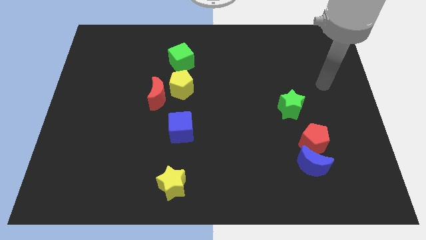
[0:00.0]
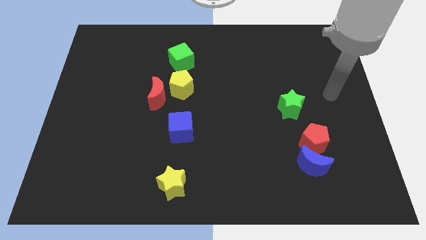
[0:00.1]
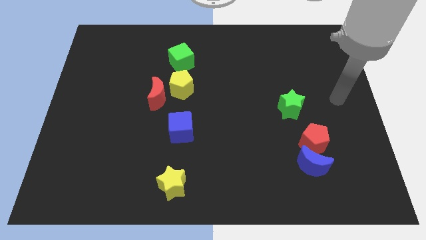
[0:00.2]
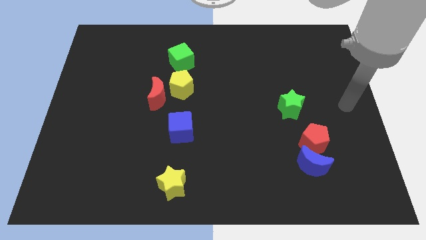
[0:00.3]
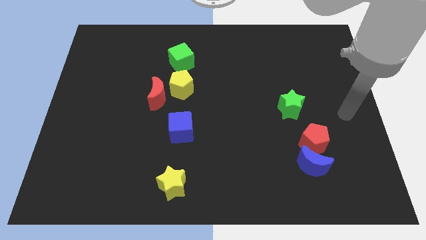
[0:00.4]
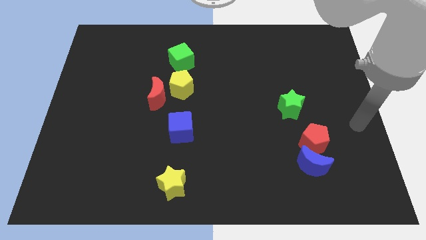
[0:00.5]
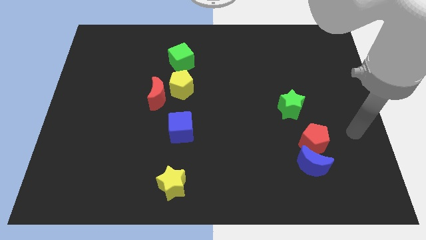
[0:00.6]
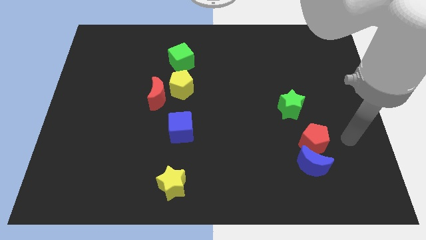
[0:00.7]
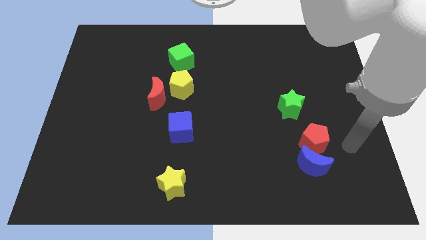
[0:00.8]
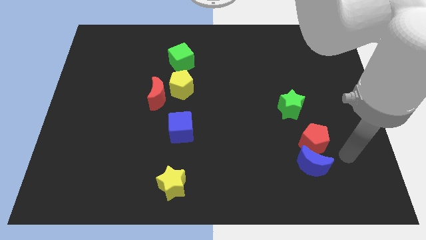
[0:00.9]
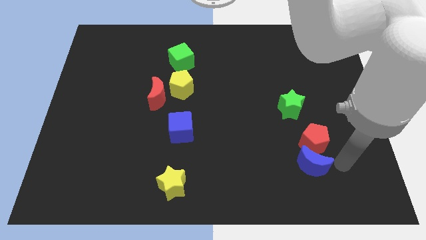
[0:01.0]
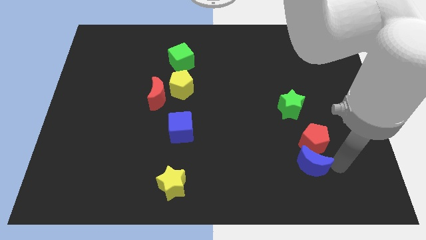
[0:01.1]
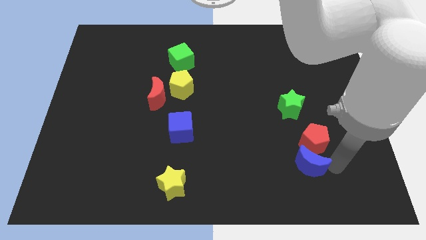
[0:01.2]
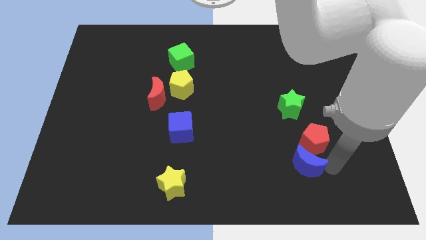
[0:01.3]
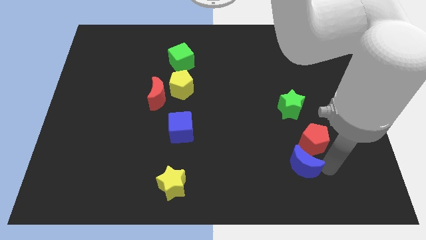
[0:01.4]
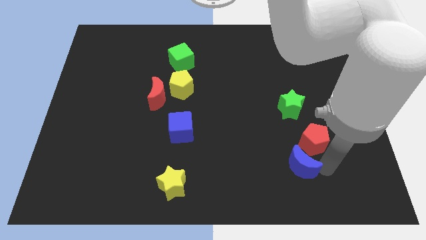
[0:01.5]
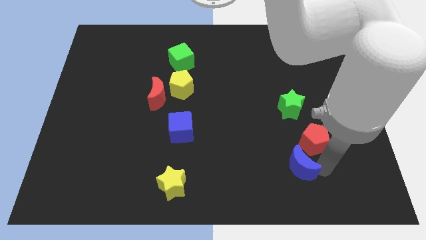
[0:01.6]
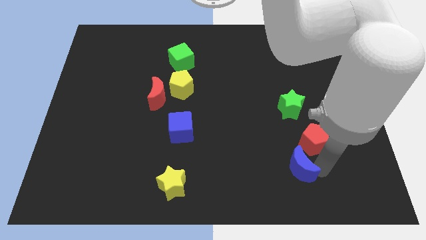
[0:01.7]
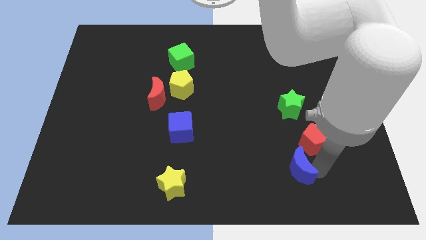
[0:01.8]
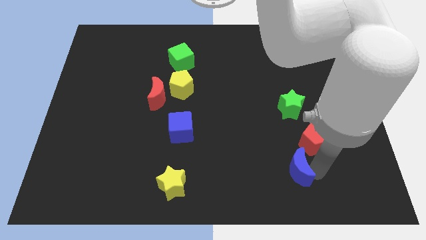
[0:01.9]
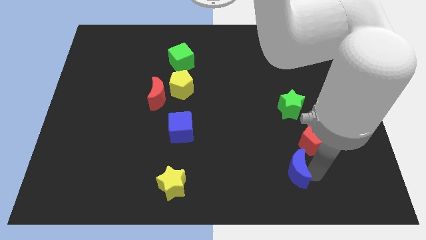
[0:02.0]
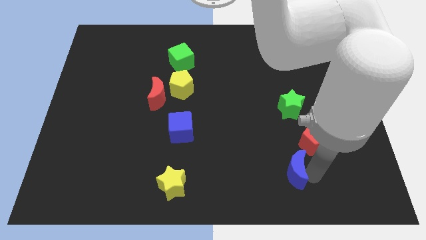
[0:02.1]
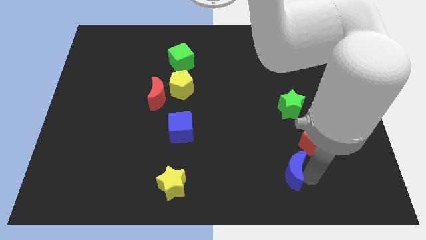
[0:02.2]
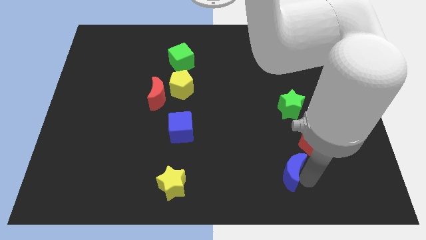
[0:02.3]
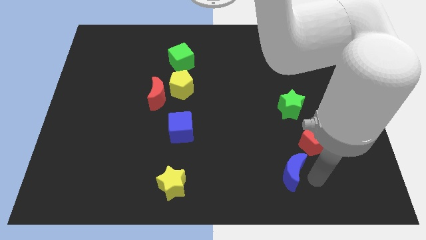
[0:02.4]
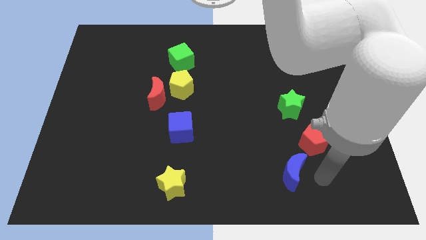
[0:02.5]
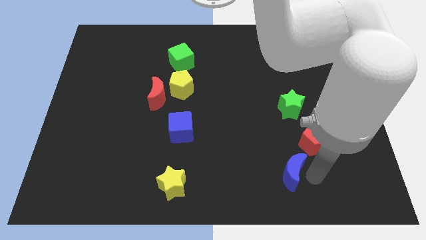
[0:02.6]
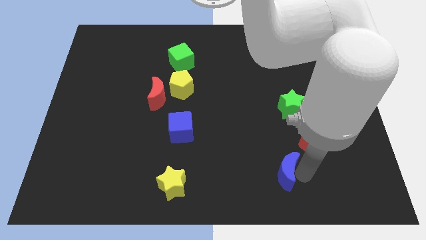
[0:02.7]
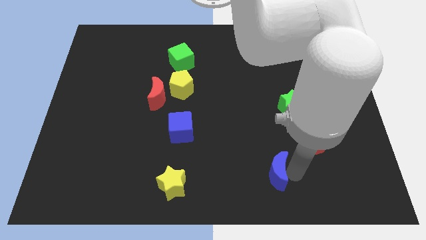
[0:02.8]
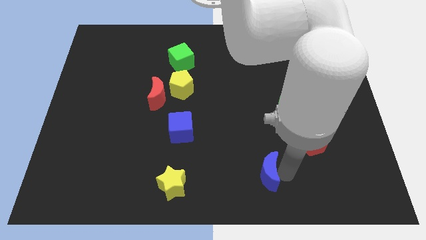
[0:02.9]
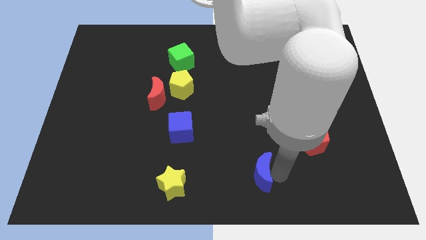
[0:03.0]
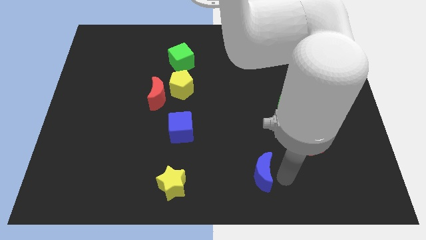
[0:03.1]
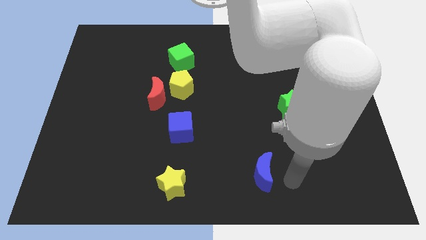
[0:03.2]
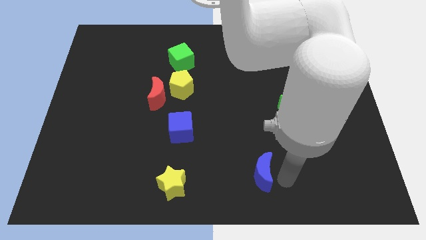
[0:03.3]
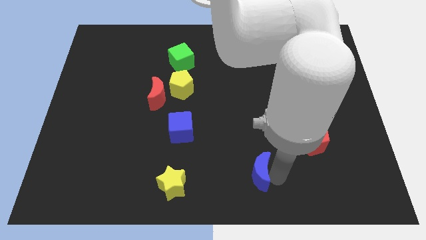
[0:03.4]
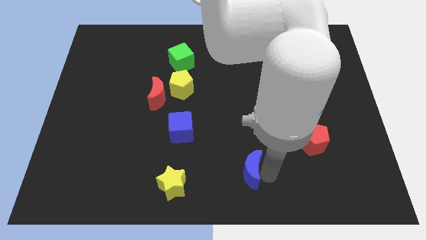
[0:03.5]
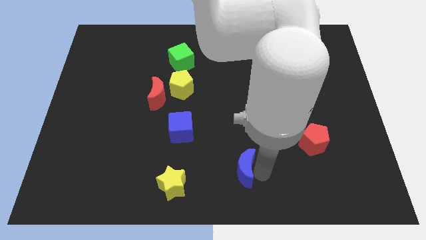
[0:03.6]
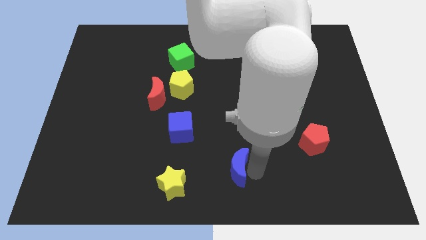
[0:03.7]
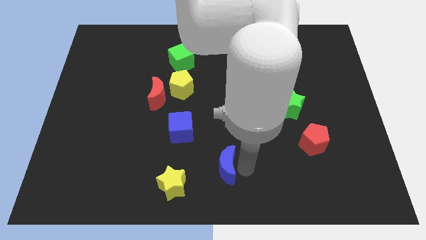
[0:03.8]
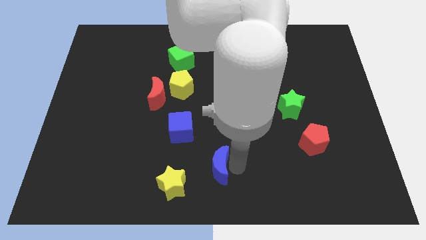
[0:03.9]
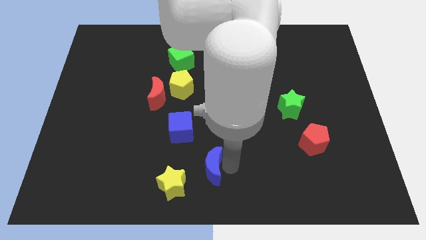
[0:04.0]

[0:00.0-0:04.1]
push the blue moon left

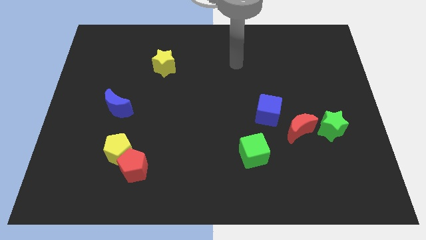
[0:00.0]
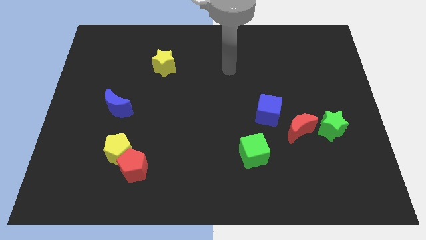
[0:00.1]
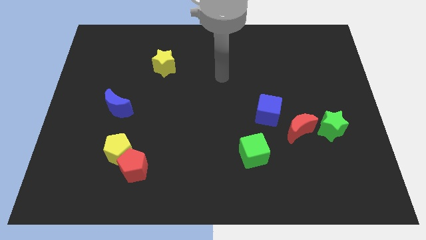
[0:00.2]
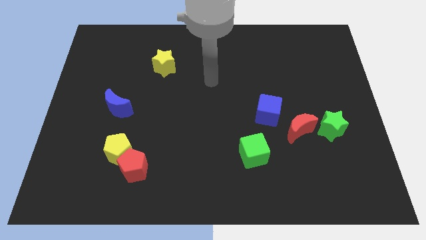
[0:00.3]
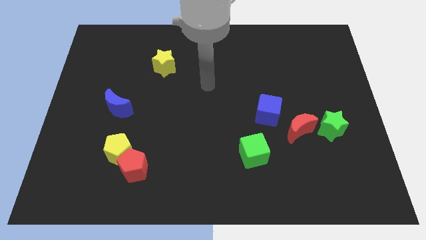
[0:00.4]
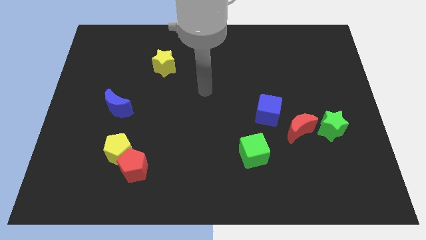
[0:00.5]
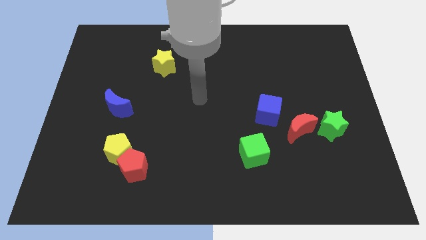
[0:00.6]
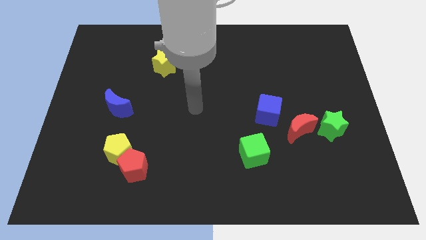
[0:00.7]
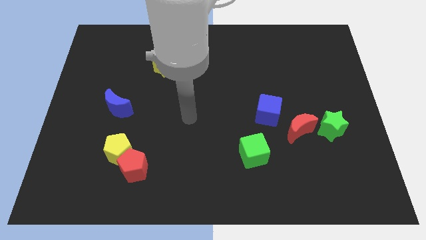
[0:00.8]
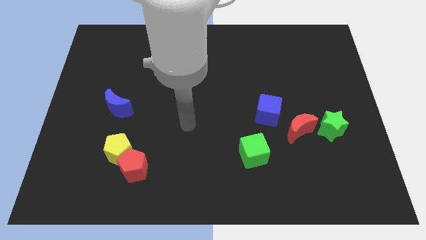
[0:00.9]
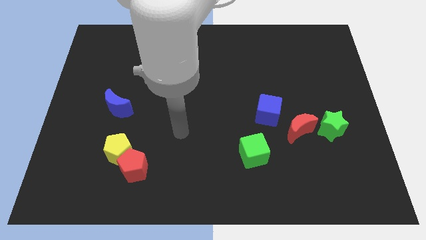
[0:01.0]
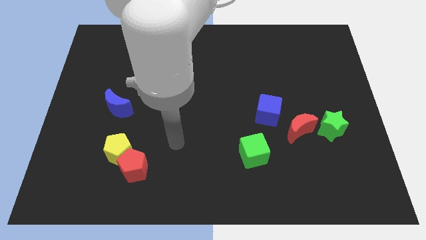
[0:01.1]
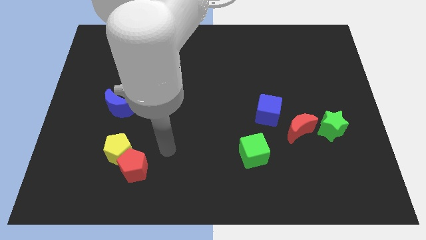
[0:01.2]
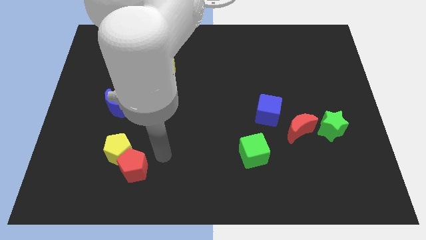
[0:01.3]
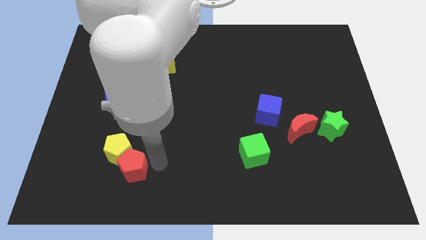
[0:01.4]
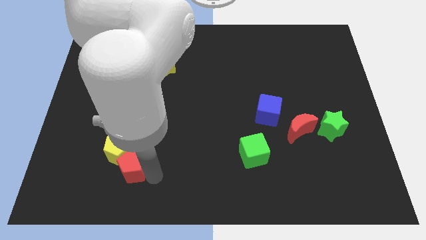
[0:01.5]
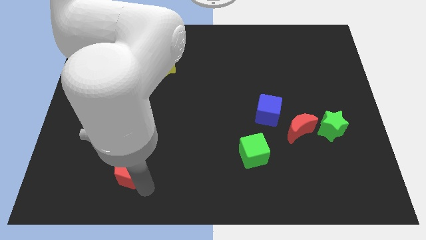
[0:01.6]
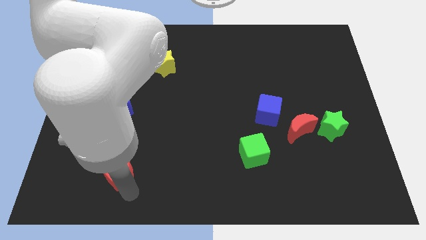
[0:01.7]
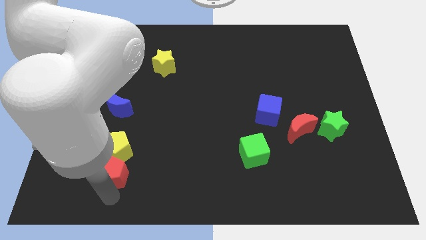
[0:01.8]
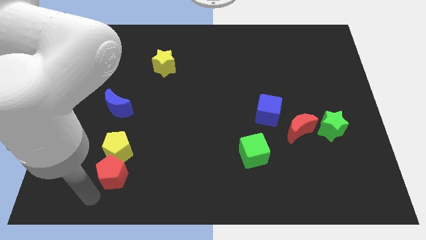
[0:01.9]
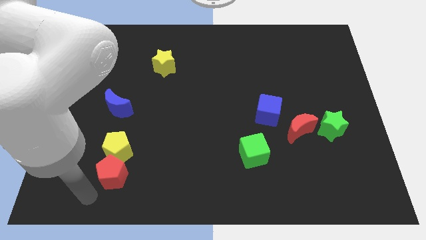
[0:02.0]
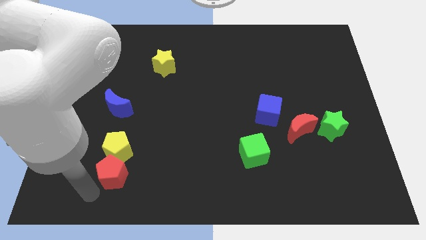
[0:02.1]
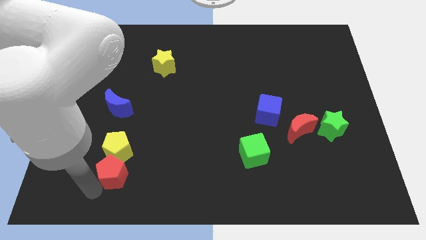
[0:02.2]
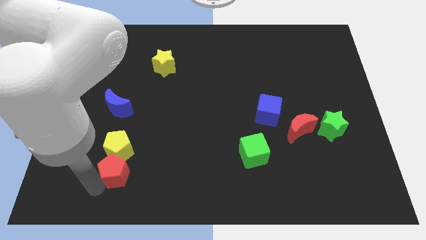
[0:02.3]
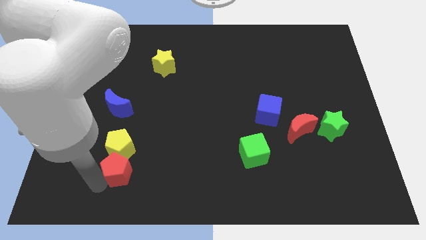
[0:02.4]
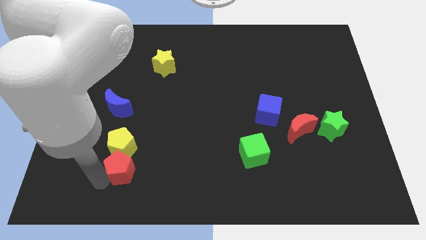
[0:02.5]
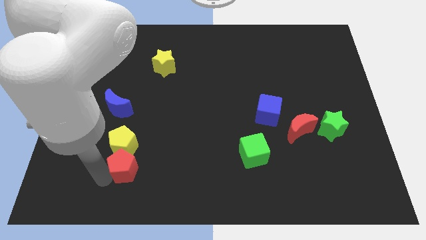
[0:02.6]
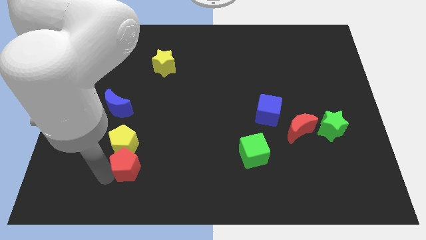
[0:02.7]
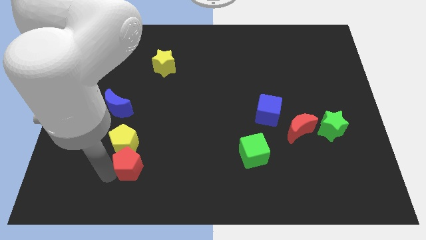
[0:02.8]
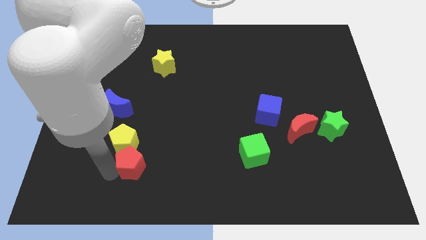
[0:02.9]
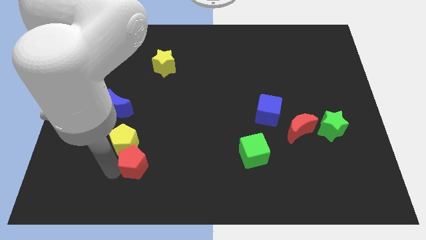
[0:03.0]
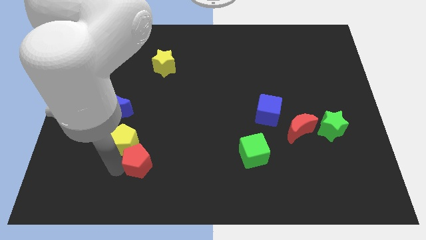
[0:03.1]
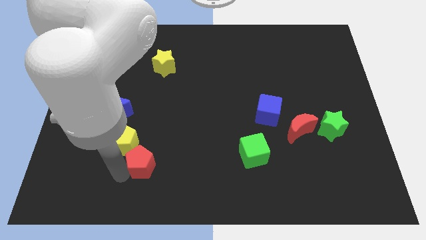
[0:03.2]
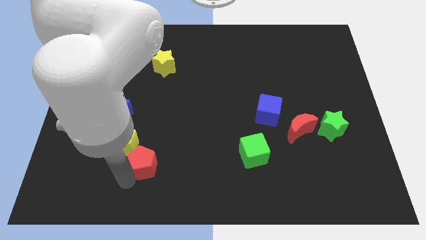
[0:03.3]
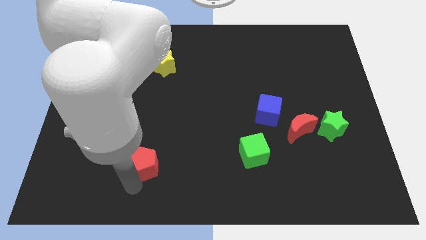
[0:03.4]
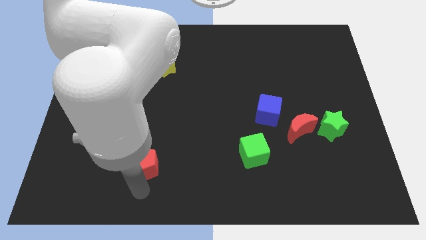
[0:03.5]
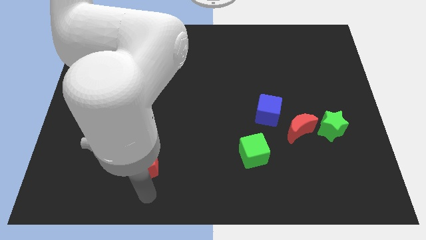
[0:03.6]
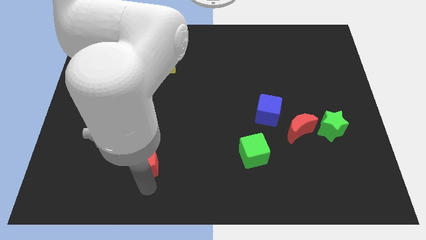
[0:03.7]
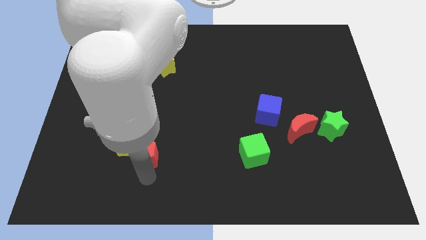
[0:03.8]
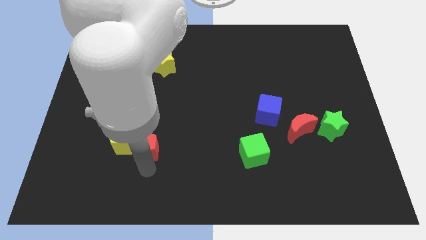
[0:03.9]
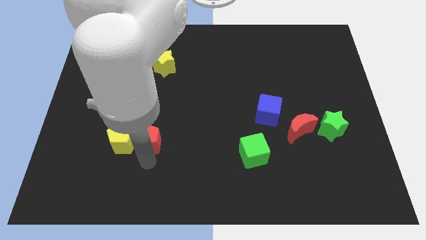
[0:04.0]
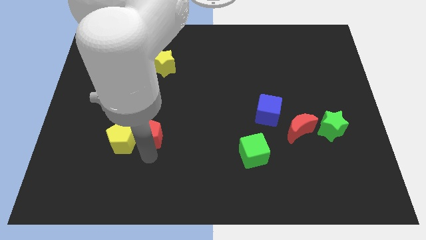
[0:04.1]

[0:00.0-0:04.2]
push the red pentagon somewhat up

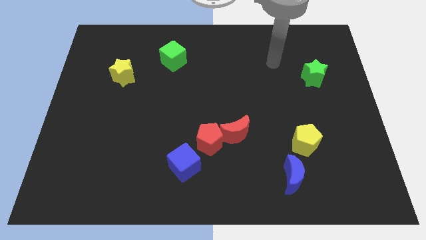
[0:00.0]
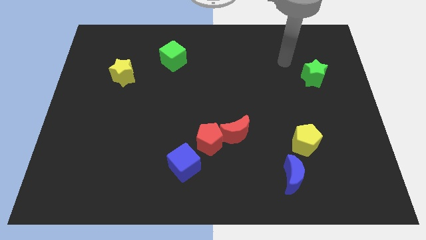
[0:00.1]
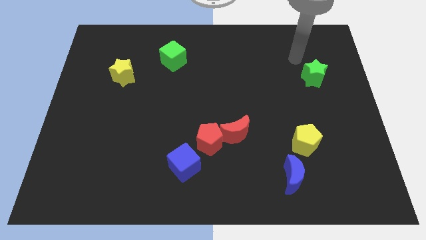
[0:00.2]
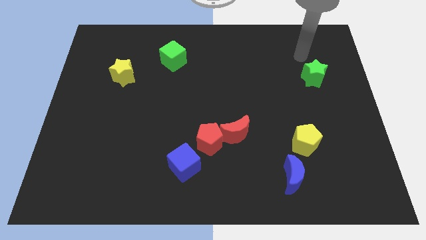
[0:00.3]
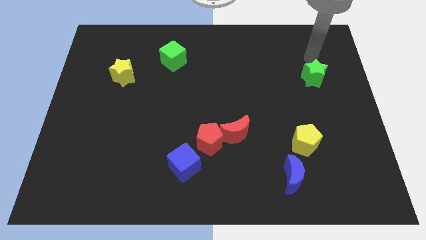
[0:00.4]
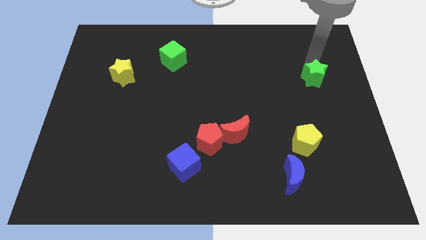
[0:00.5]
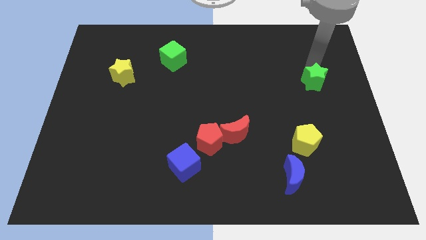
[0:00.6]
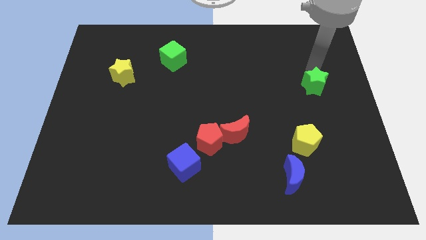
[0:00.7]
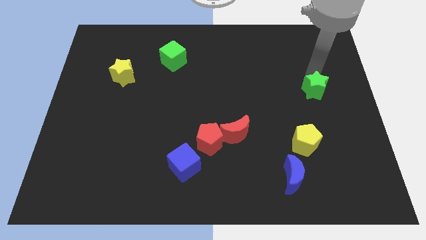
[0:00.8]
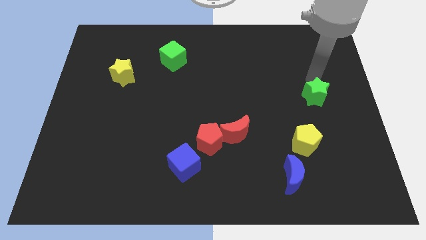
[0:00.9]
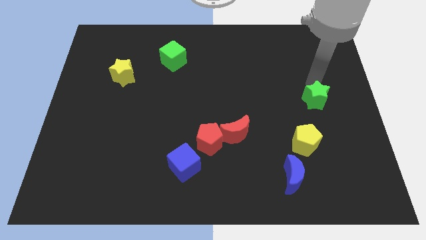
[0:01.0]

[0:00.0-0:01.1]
slide the green star somewhat downwards
